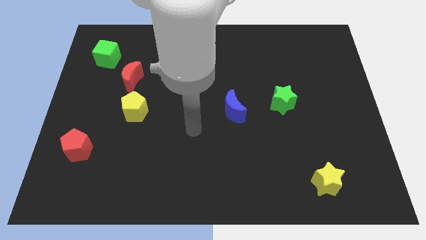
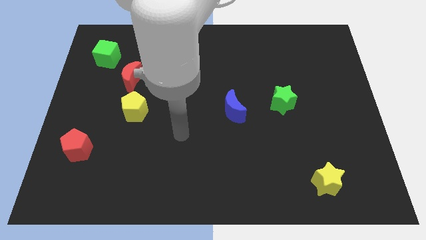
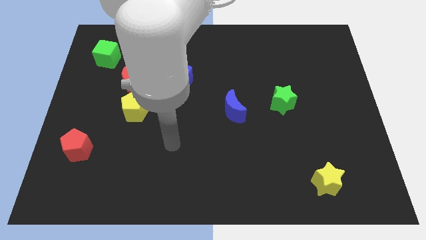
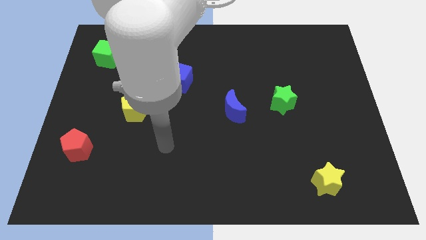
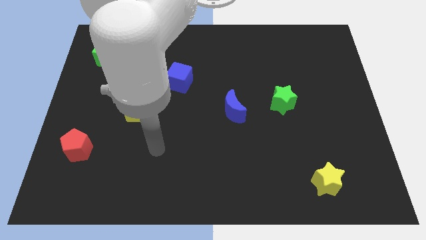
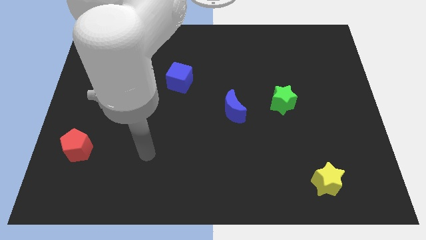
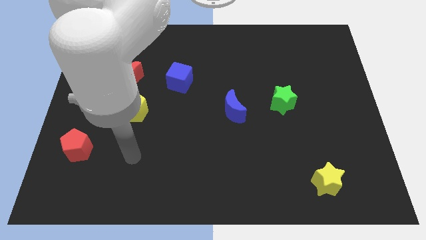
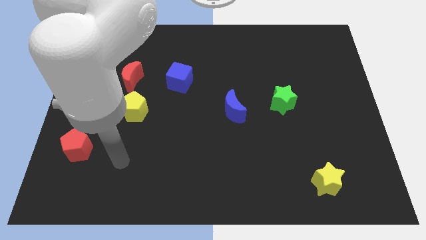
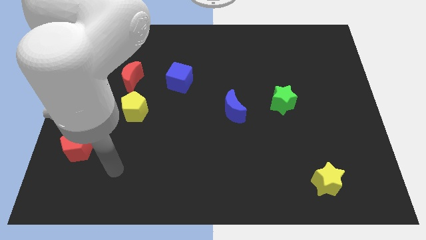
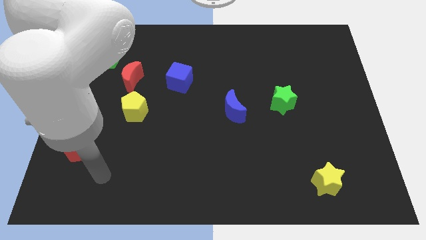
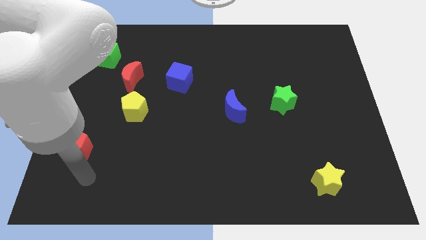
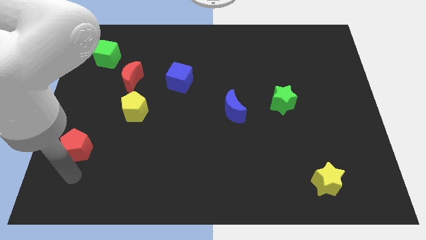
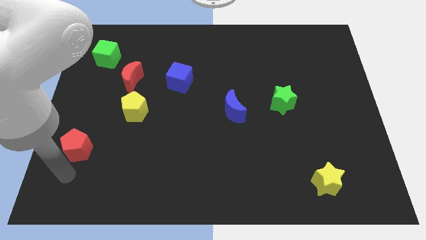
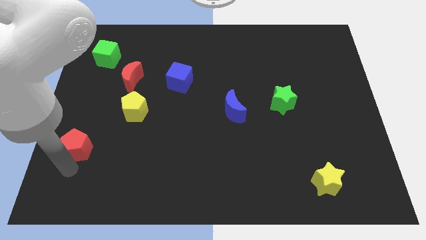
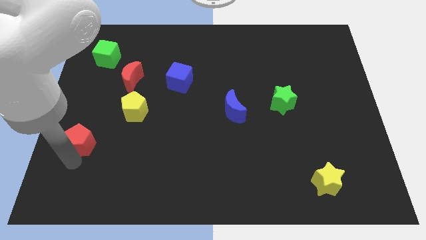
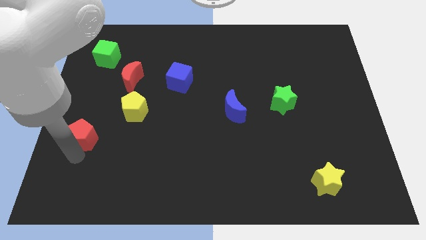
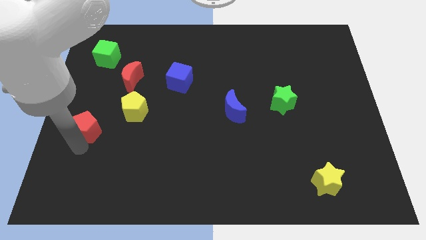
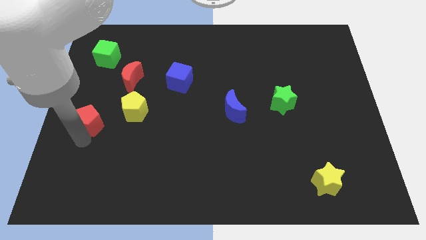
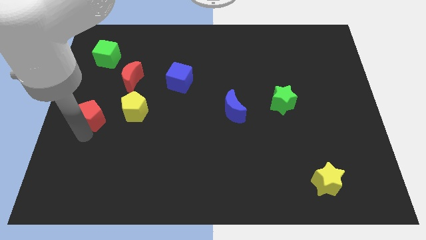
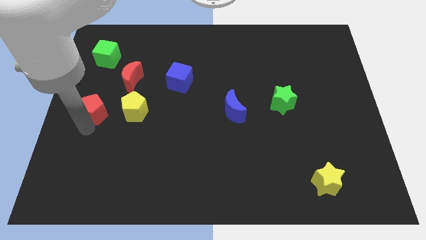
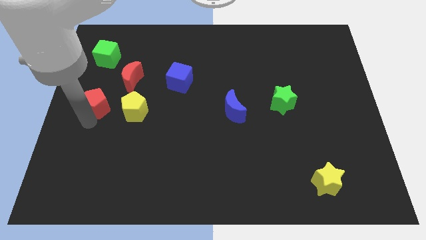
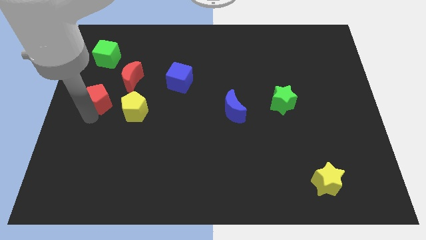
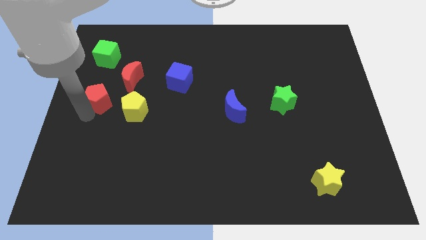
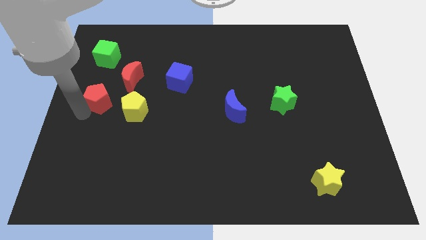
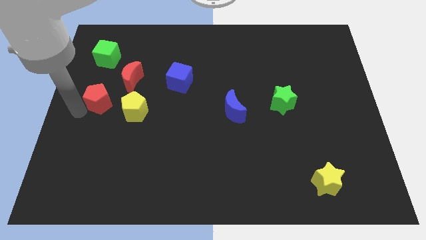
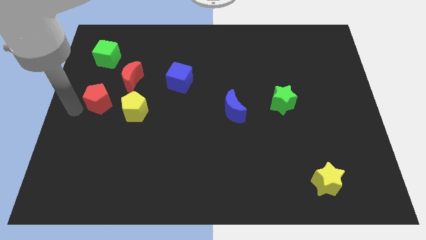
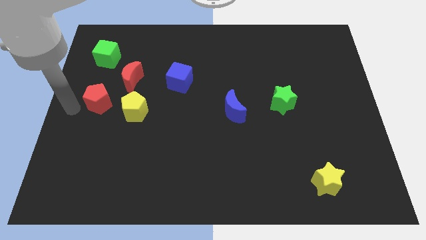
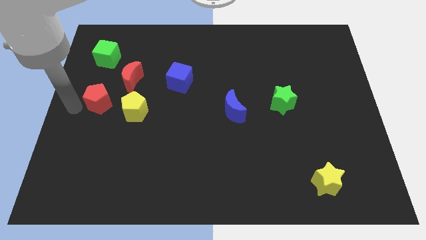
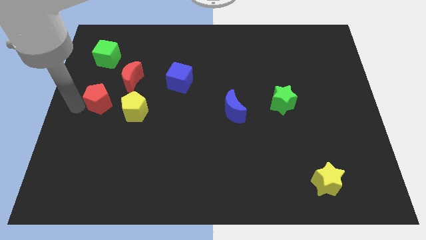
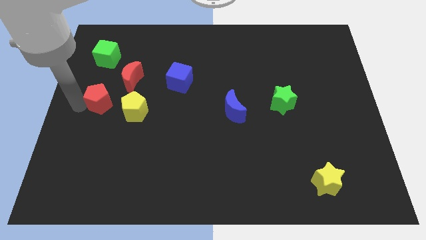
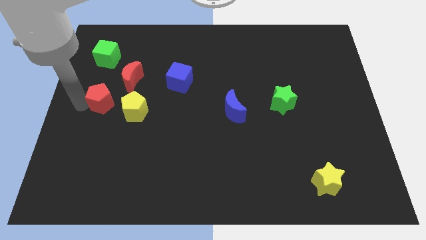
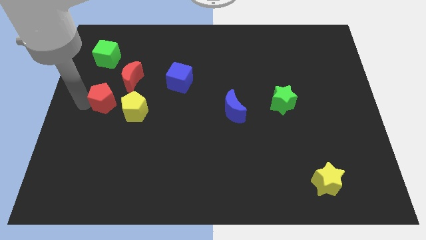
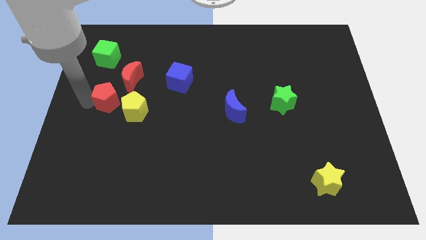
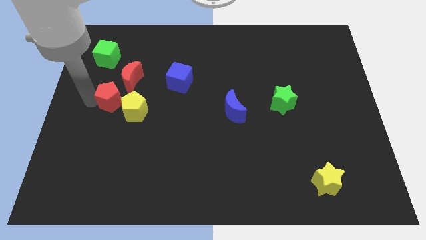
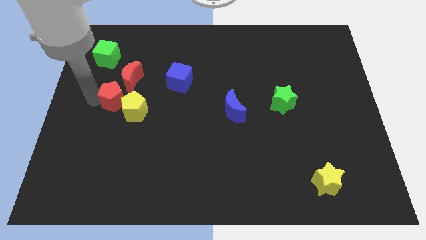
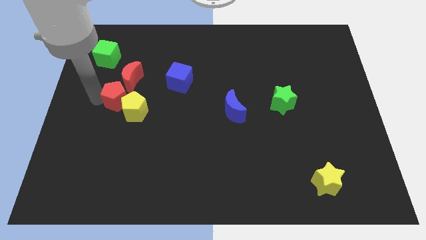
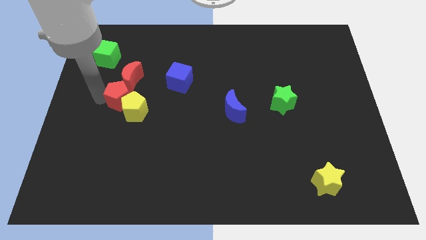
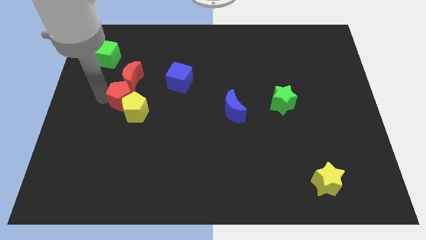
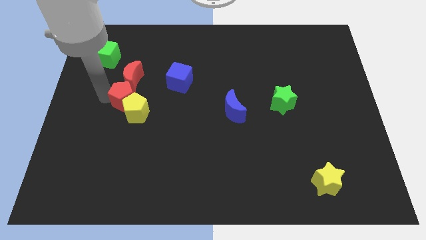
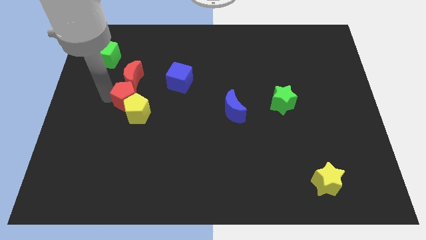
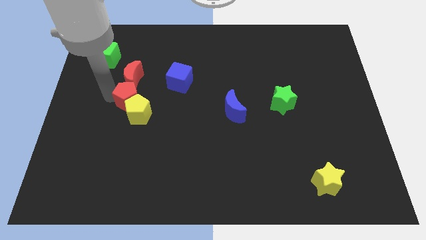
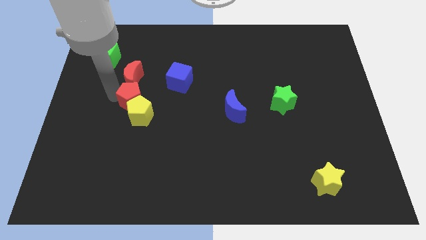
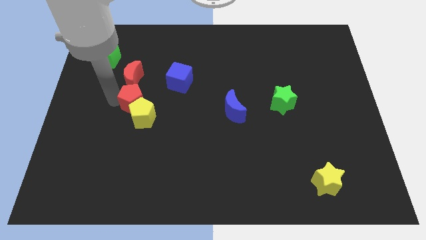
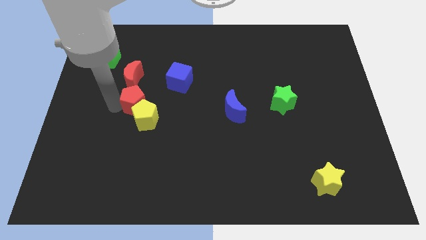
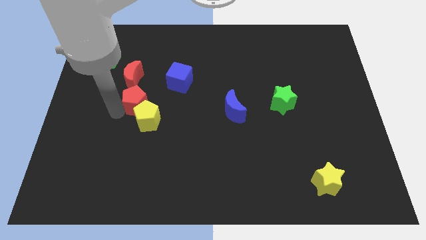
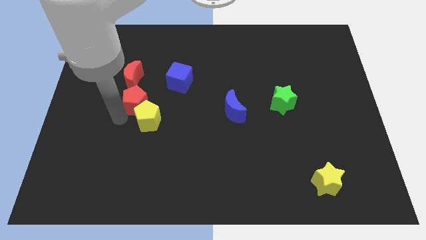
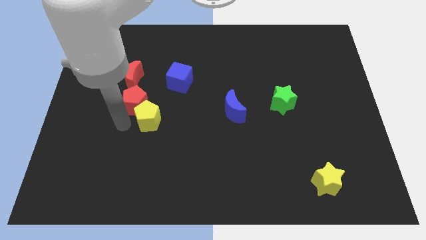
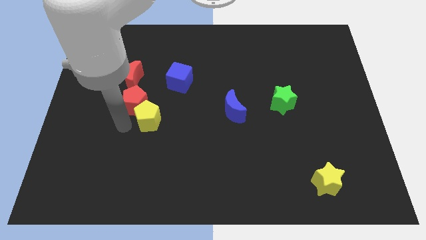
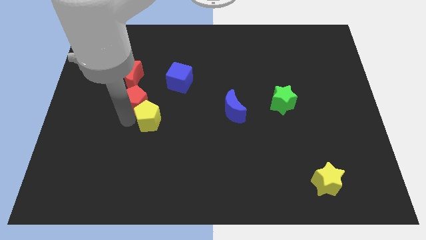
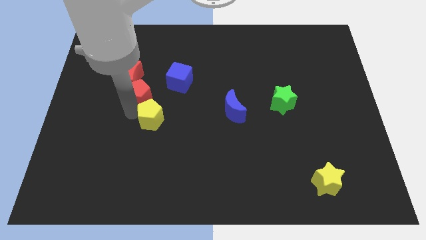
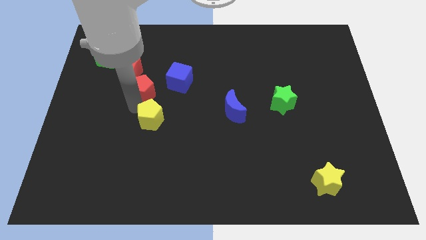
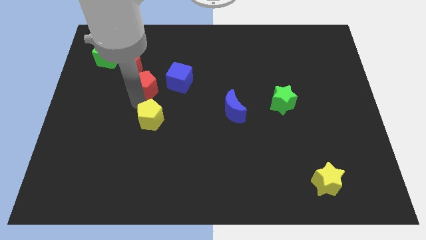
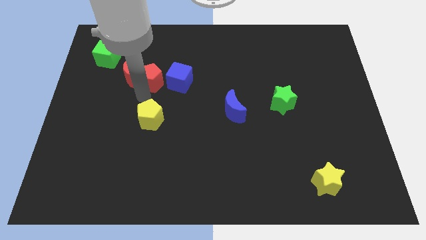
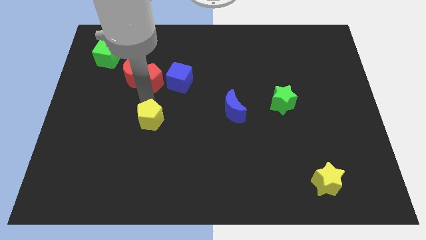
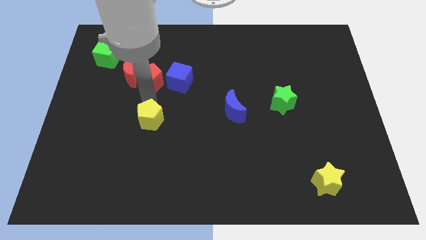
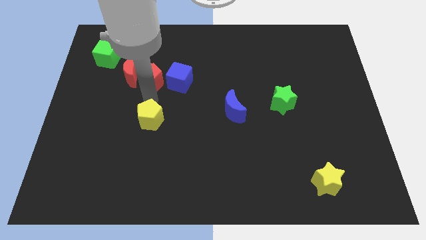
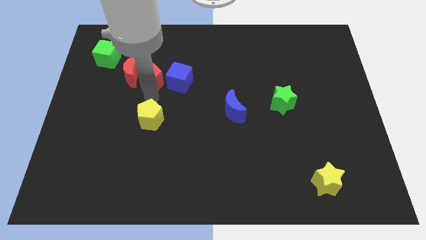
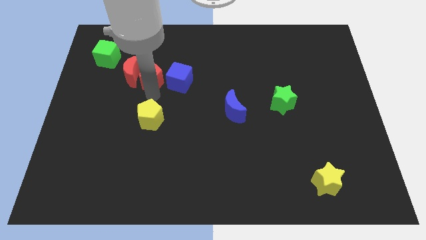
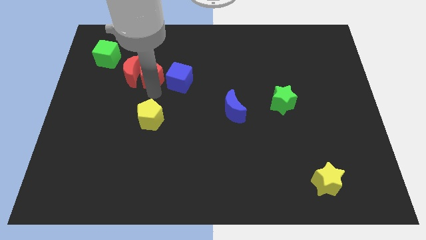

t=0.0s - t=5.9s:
push the red pentagon to the top right of the red moon

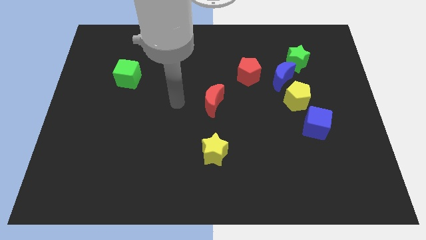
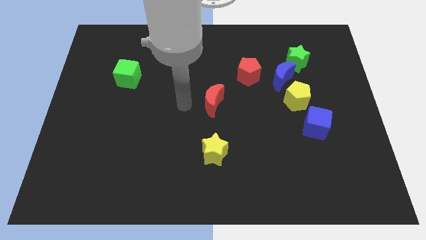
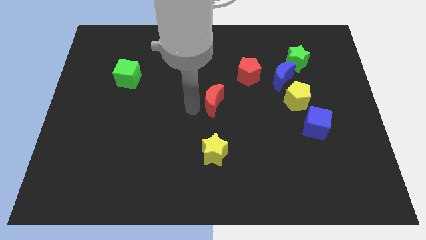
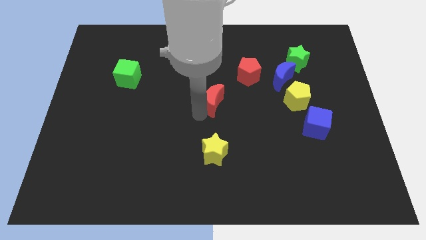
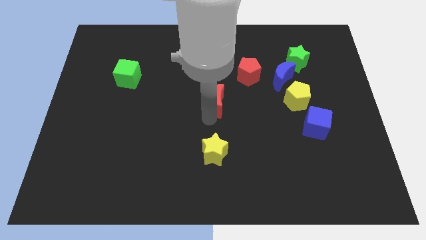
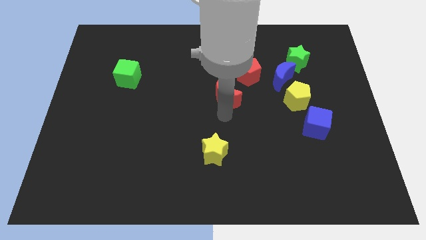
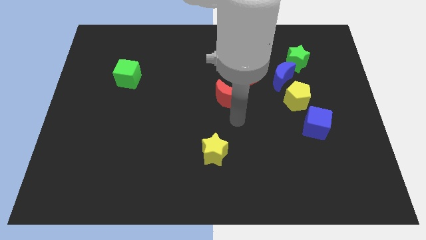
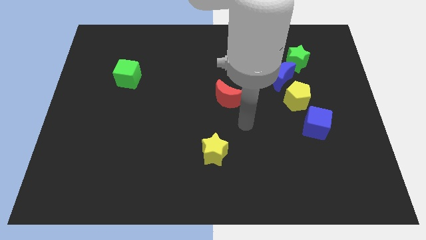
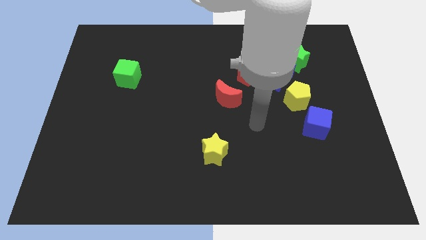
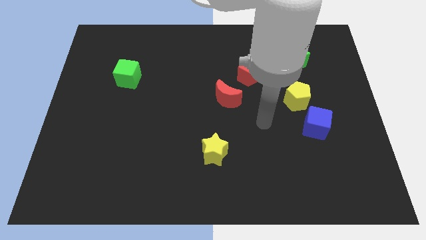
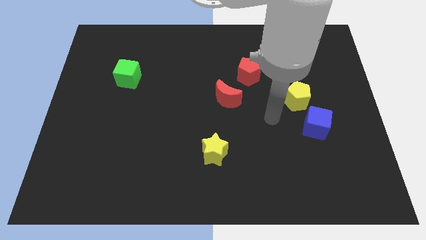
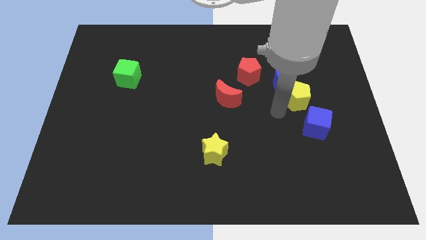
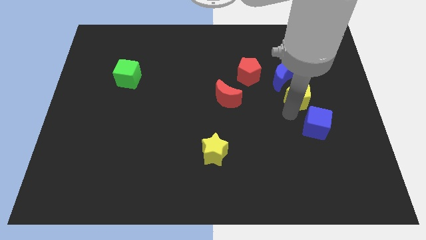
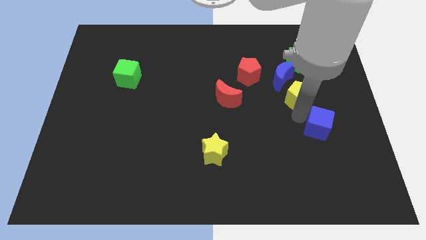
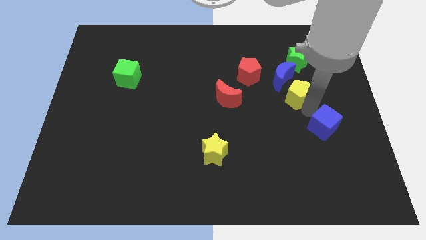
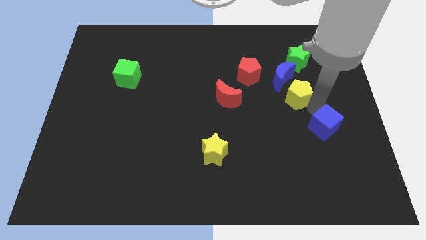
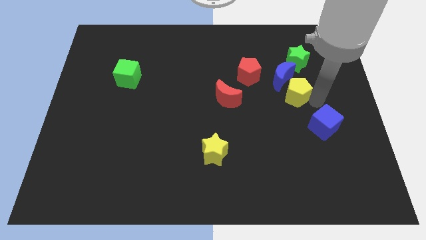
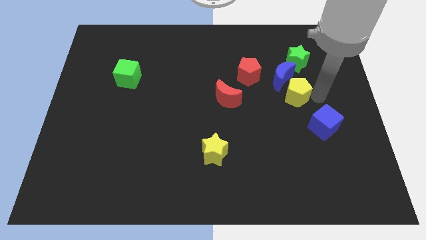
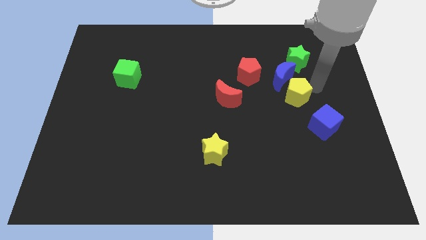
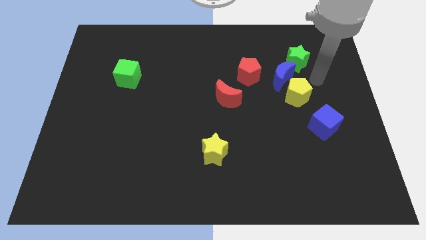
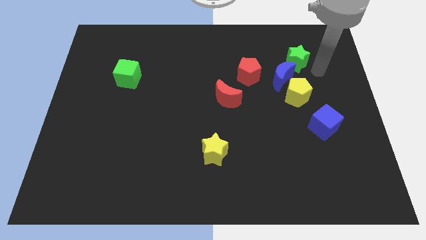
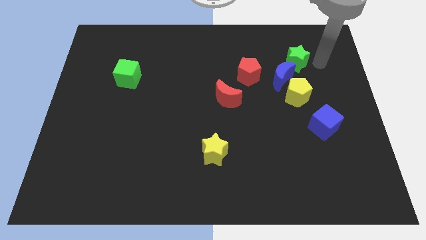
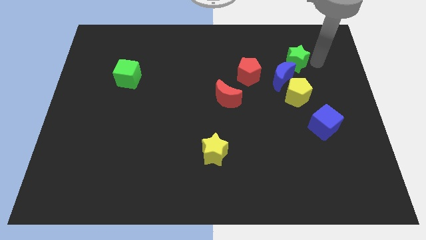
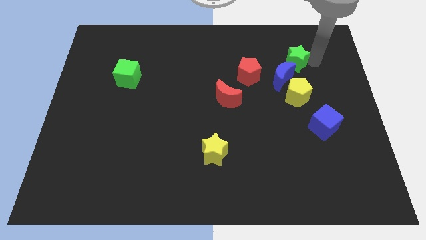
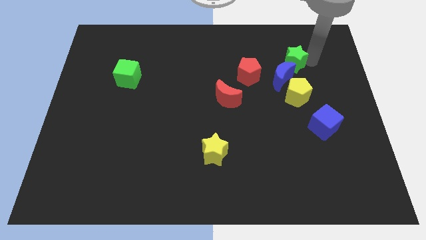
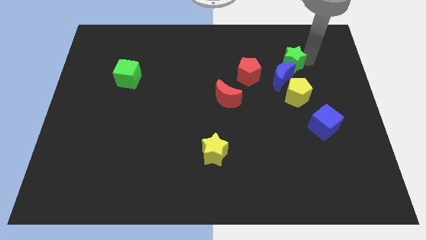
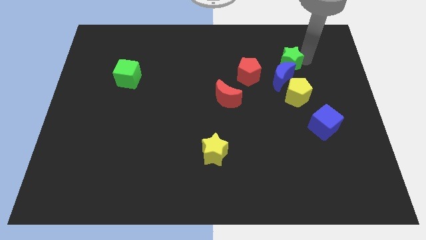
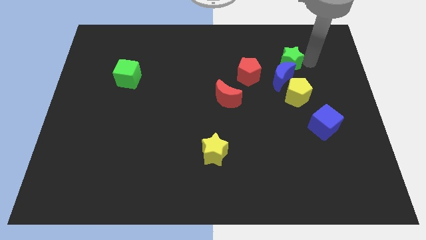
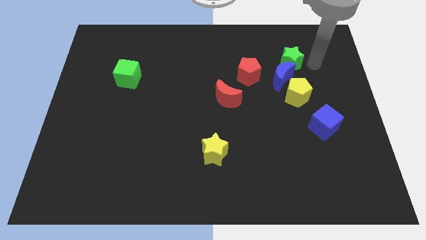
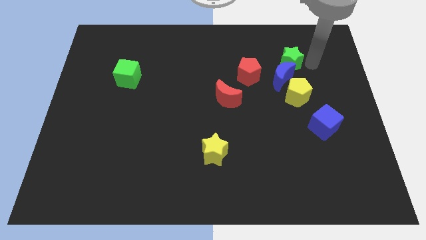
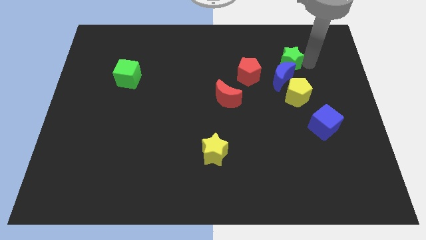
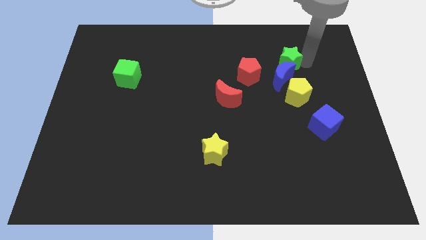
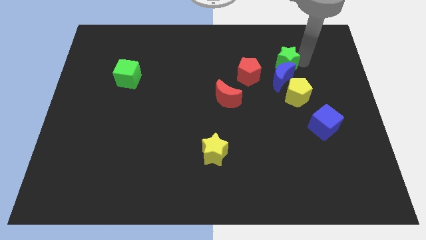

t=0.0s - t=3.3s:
push the green star diagonally up and to the right of the red pentagon
